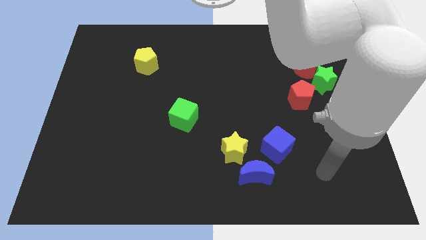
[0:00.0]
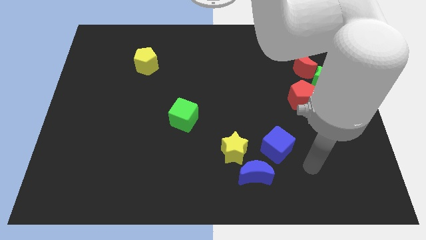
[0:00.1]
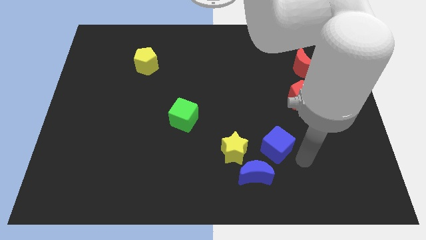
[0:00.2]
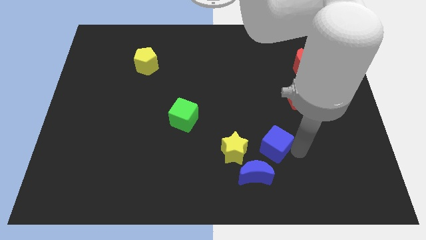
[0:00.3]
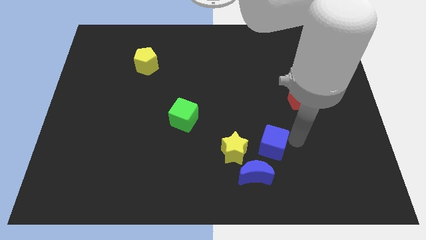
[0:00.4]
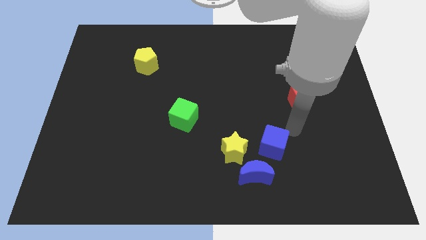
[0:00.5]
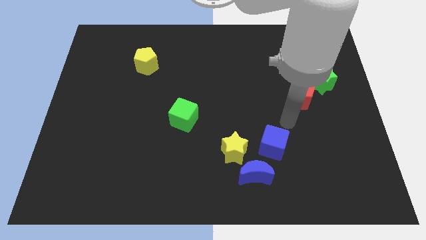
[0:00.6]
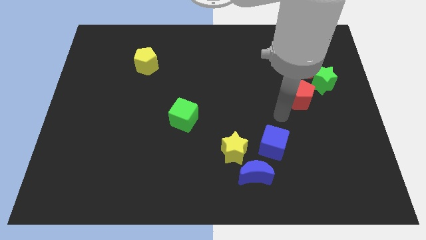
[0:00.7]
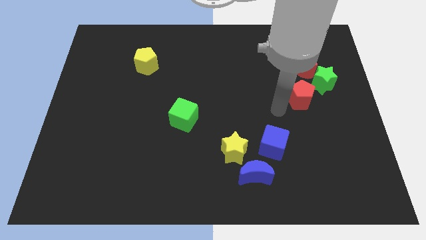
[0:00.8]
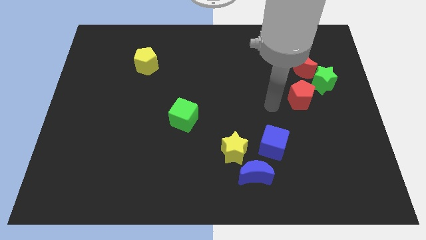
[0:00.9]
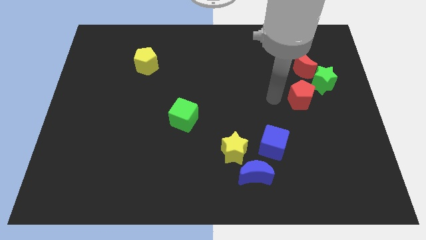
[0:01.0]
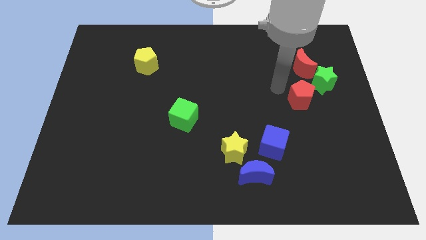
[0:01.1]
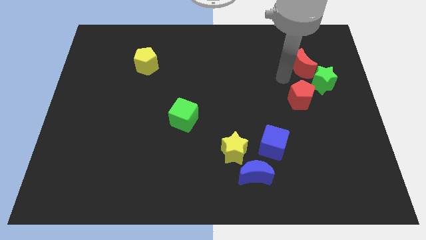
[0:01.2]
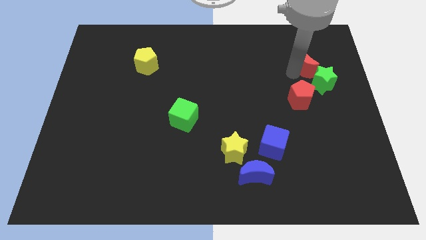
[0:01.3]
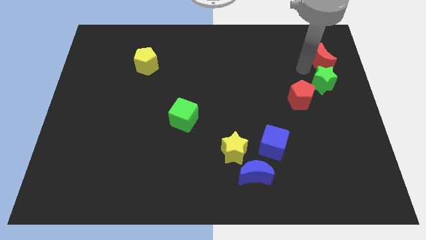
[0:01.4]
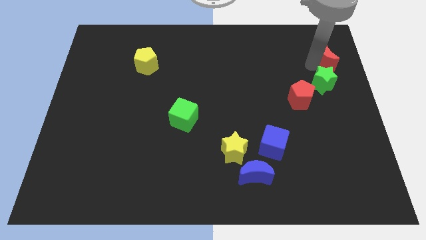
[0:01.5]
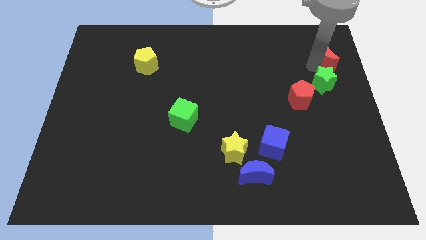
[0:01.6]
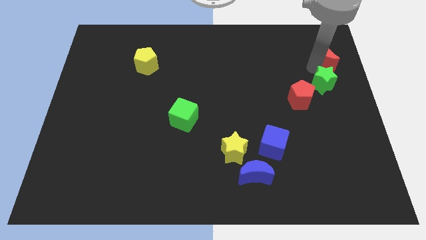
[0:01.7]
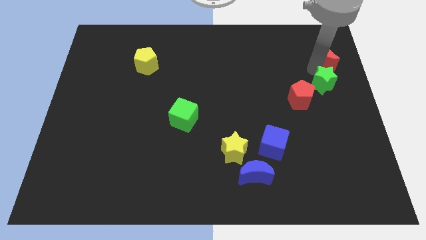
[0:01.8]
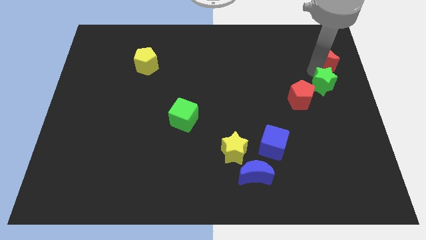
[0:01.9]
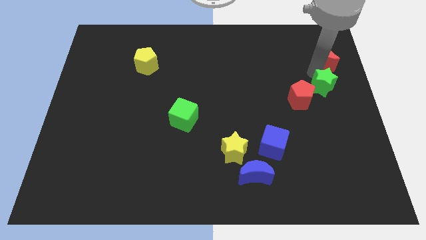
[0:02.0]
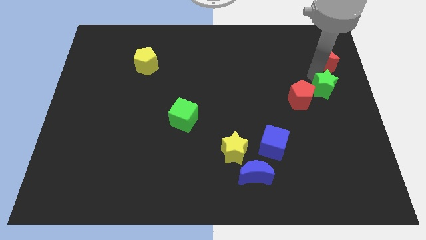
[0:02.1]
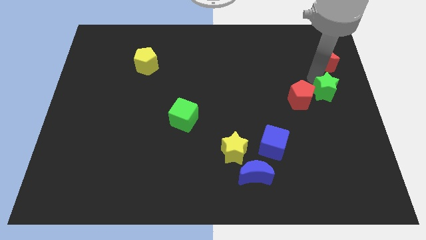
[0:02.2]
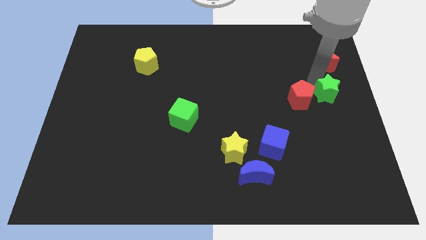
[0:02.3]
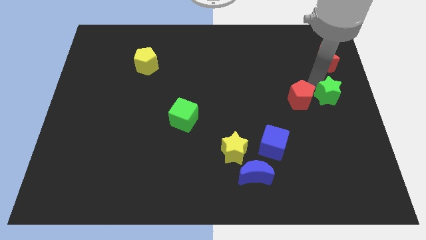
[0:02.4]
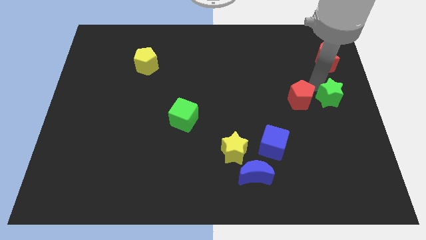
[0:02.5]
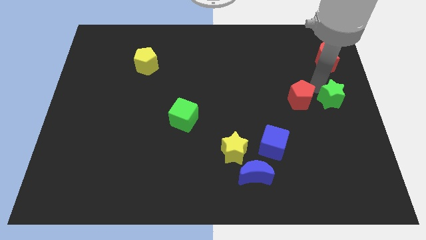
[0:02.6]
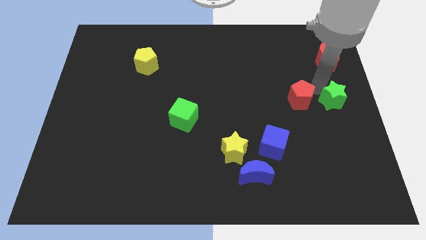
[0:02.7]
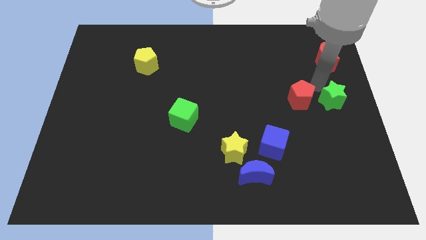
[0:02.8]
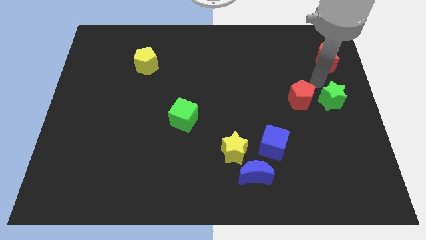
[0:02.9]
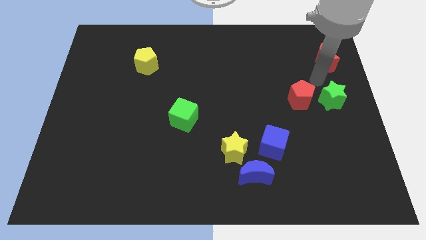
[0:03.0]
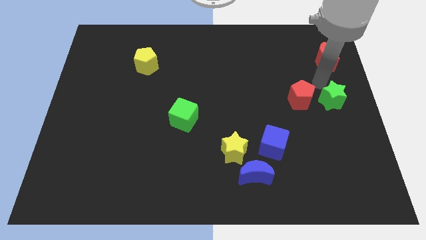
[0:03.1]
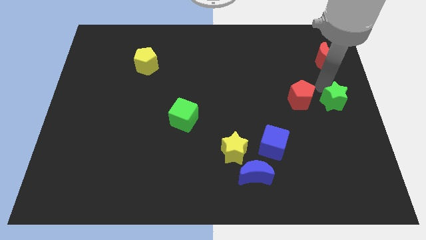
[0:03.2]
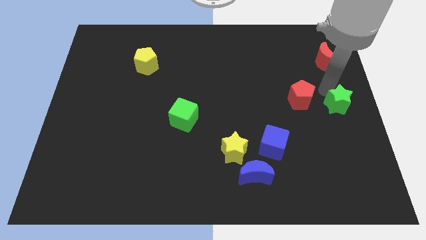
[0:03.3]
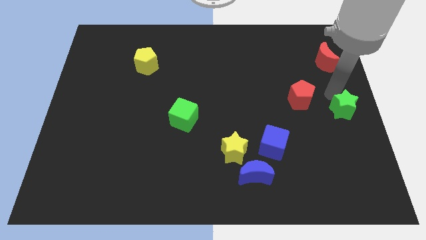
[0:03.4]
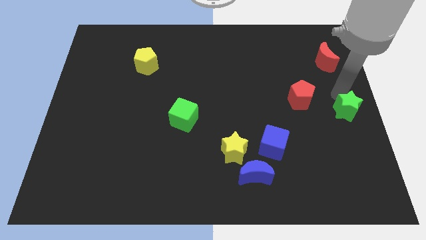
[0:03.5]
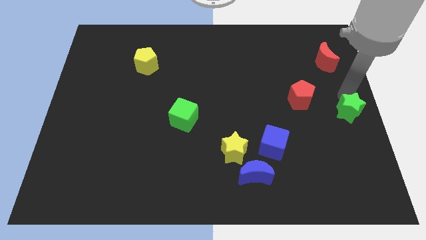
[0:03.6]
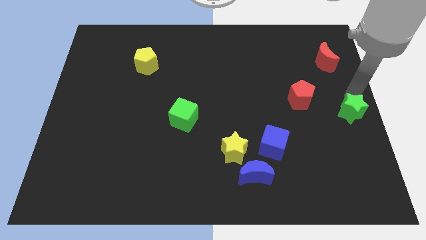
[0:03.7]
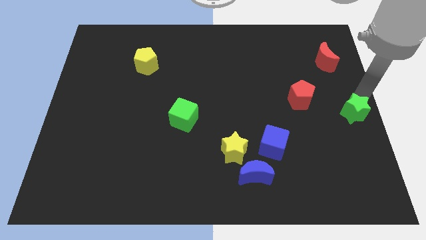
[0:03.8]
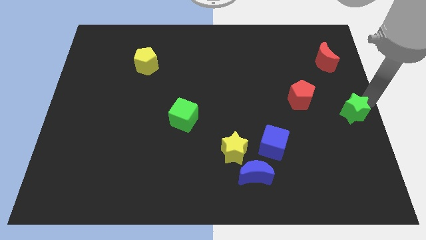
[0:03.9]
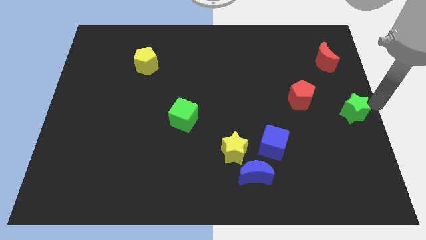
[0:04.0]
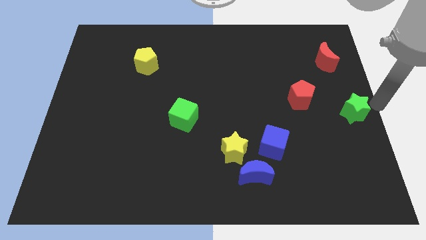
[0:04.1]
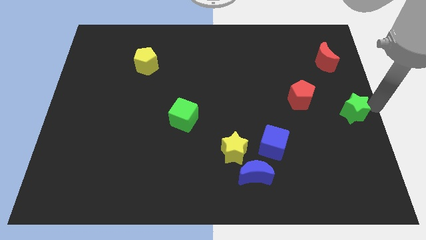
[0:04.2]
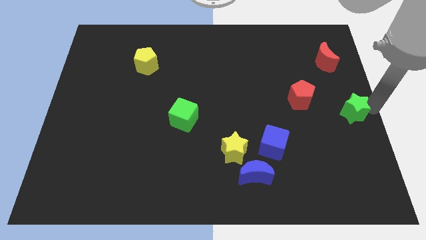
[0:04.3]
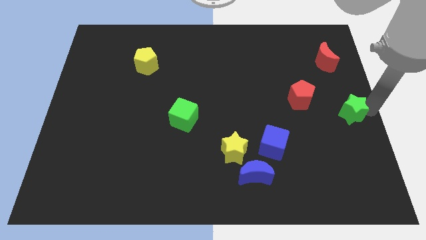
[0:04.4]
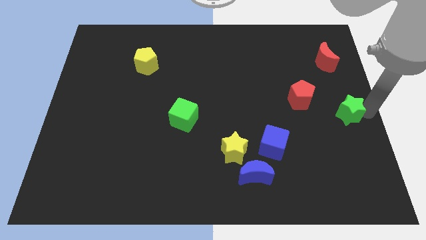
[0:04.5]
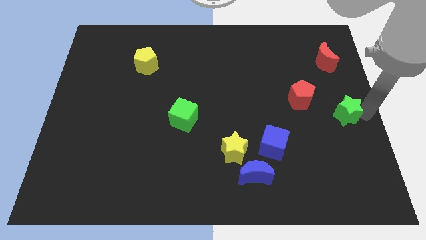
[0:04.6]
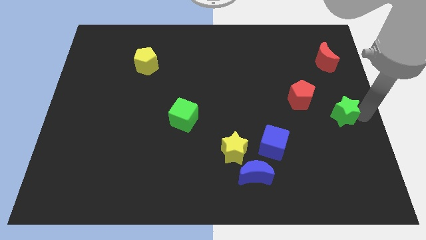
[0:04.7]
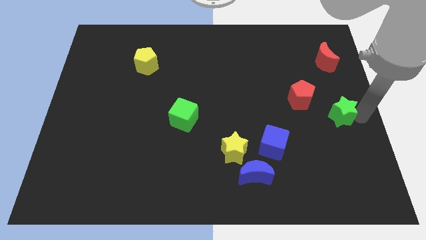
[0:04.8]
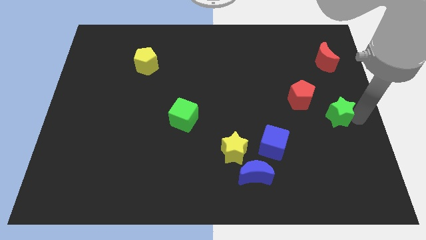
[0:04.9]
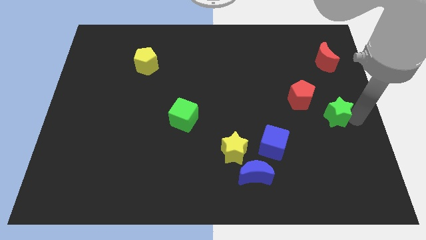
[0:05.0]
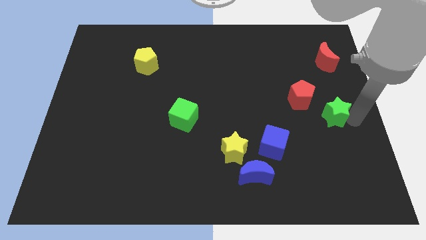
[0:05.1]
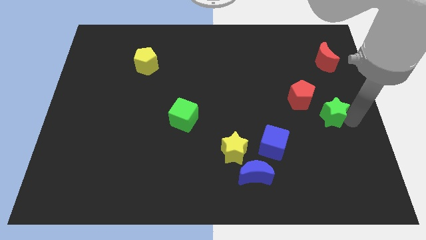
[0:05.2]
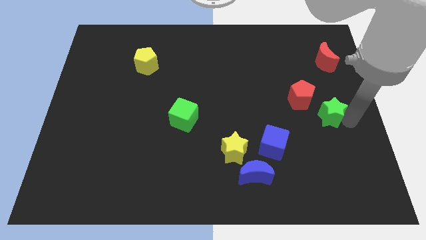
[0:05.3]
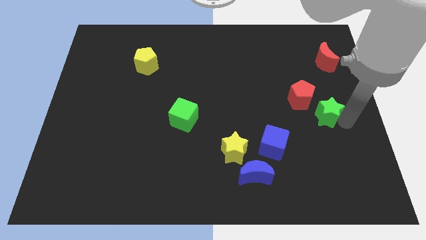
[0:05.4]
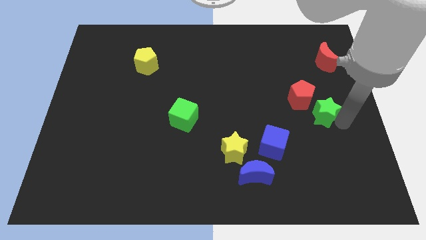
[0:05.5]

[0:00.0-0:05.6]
push the green star down and to the left diagonally a little

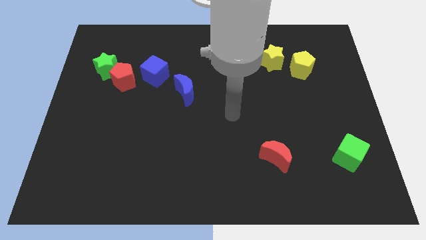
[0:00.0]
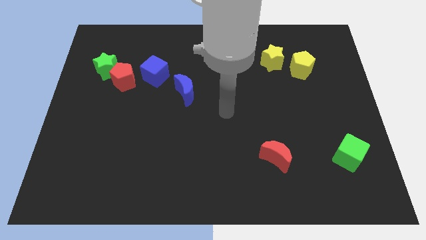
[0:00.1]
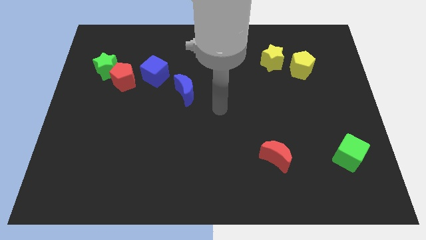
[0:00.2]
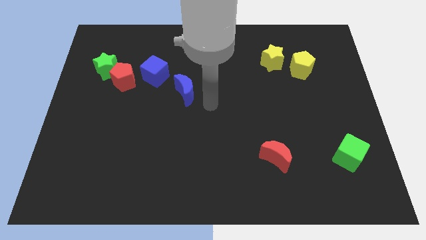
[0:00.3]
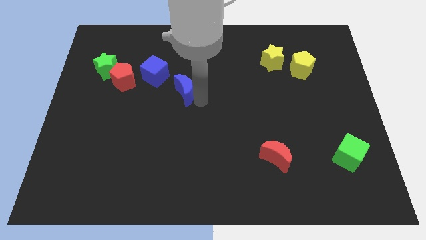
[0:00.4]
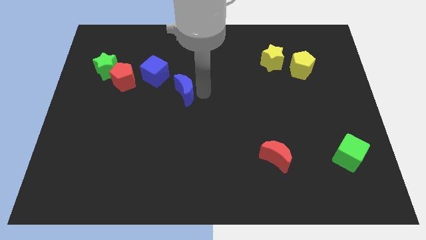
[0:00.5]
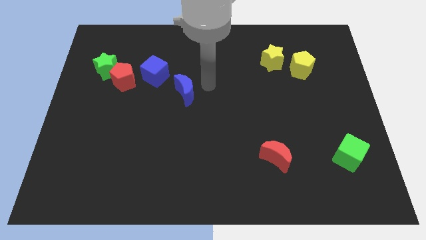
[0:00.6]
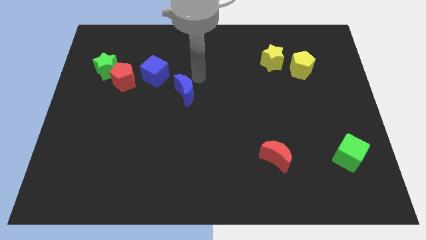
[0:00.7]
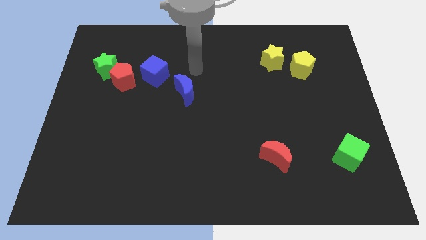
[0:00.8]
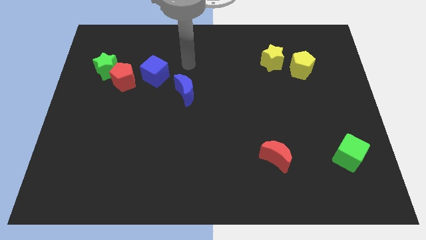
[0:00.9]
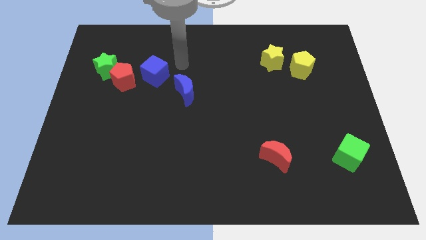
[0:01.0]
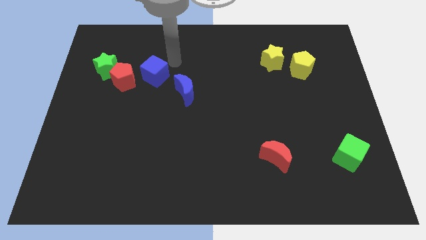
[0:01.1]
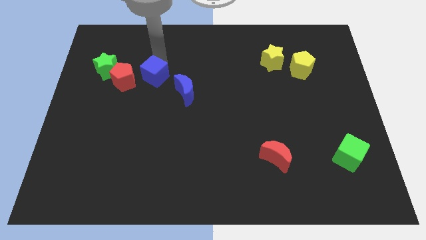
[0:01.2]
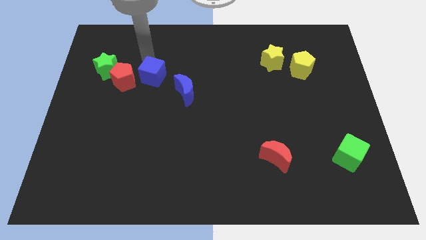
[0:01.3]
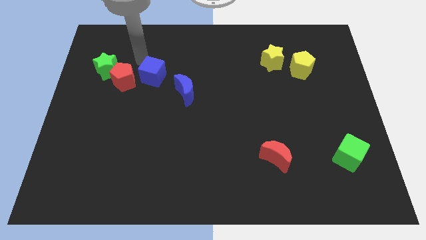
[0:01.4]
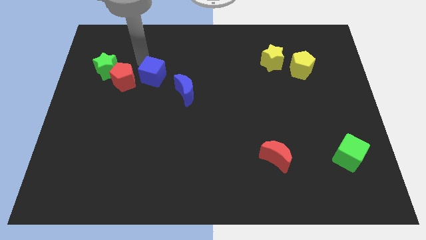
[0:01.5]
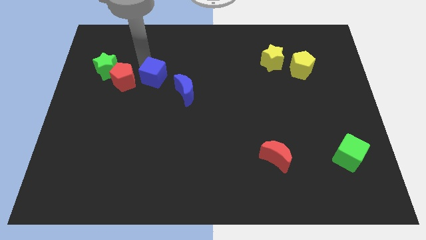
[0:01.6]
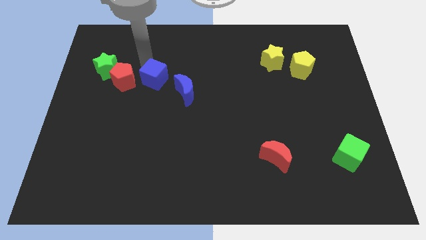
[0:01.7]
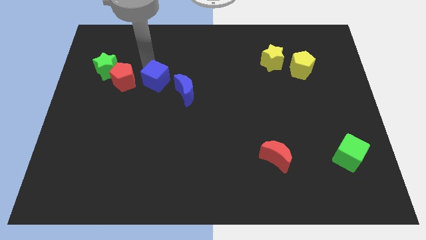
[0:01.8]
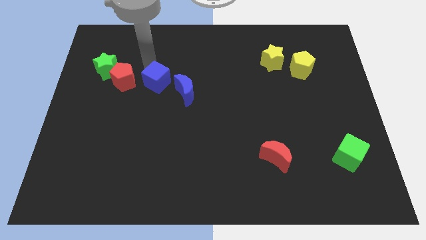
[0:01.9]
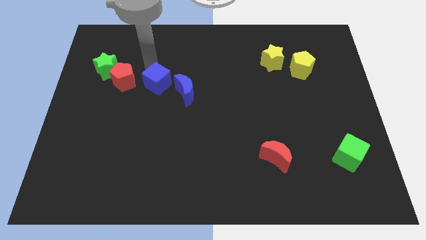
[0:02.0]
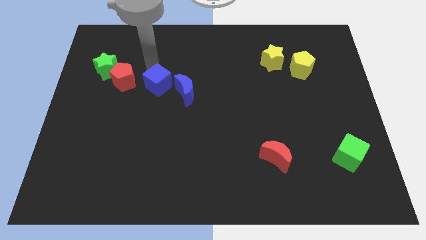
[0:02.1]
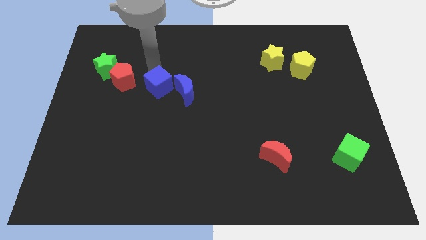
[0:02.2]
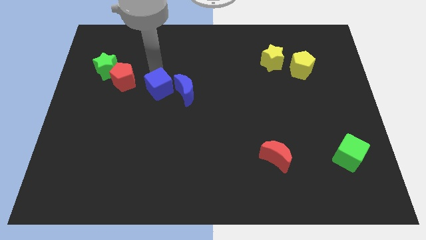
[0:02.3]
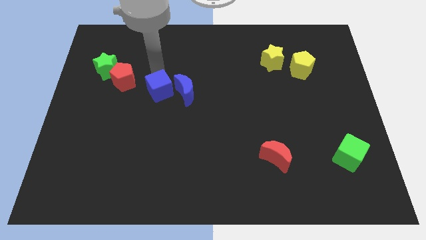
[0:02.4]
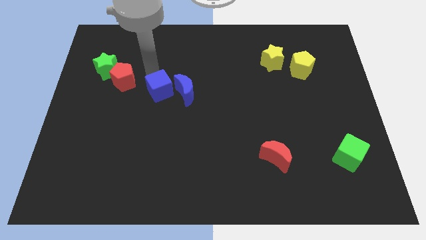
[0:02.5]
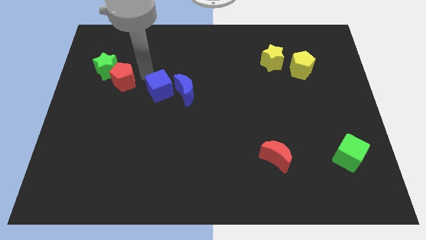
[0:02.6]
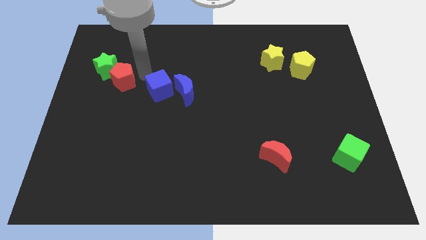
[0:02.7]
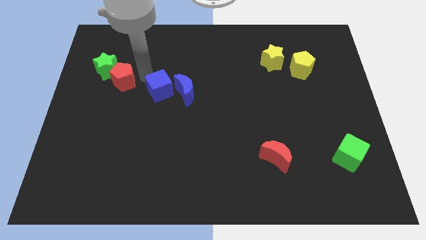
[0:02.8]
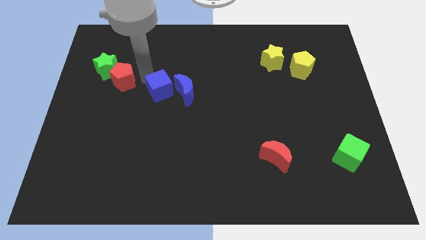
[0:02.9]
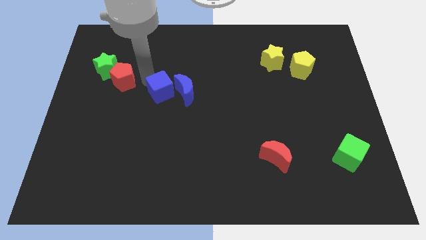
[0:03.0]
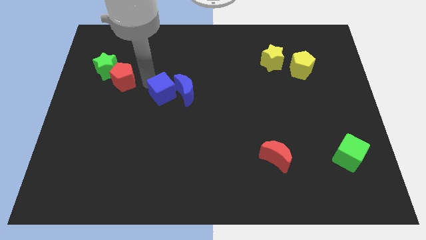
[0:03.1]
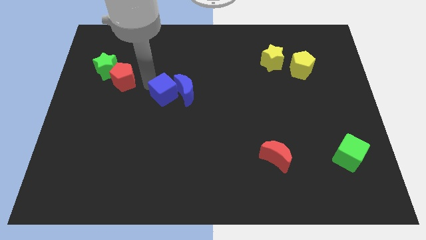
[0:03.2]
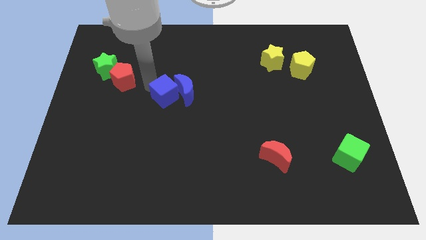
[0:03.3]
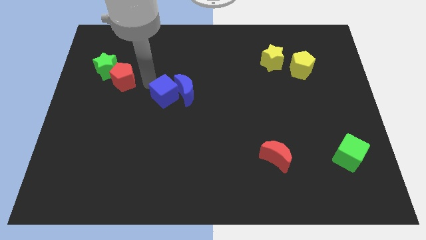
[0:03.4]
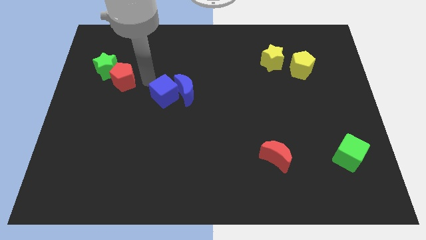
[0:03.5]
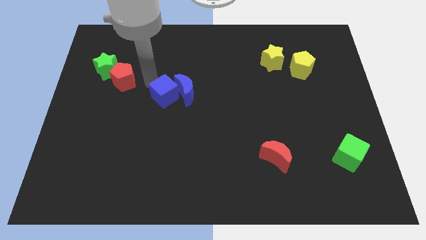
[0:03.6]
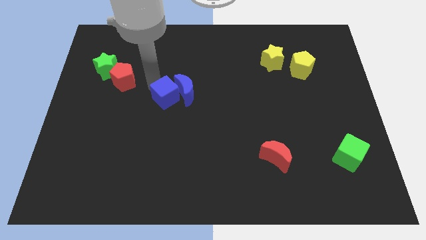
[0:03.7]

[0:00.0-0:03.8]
slide the blue cube down and then right a little bit
